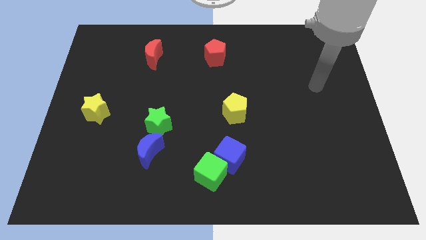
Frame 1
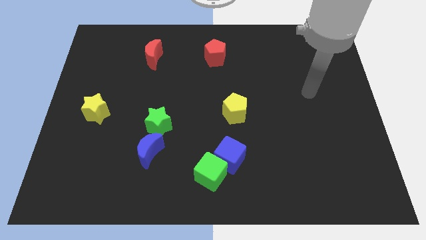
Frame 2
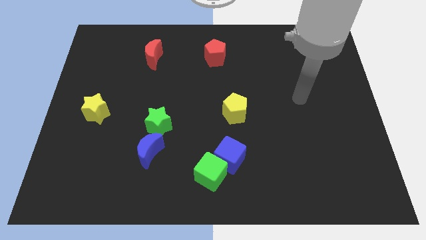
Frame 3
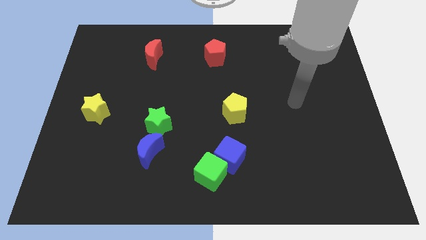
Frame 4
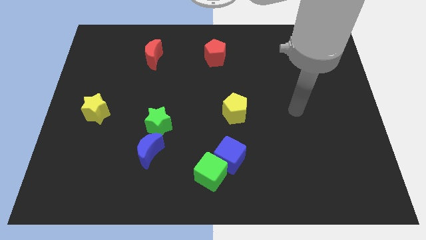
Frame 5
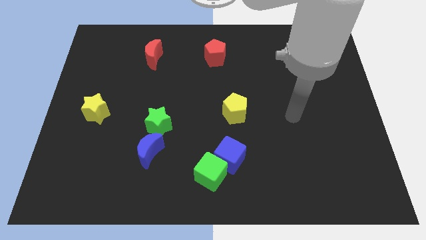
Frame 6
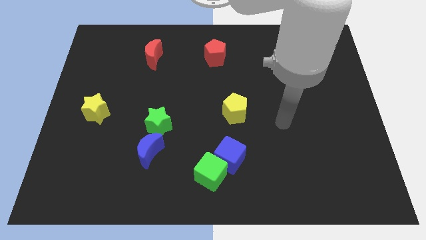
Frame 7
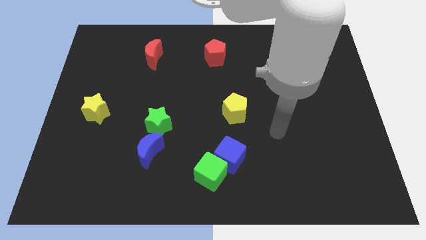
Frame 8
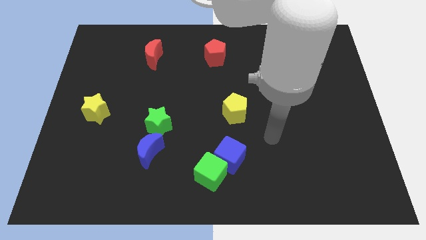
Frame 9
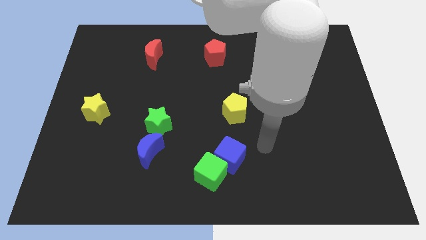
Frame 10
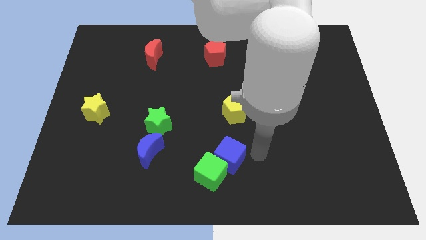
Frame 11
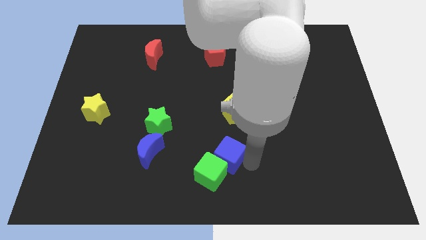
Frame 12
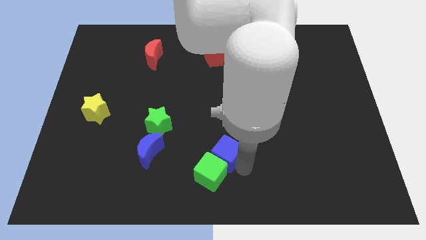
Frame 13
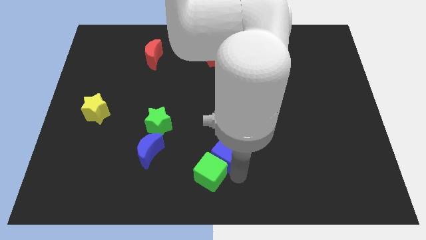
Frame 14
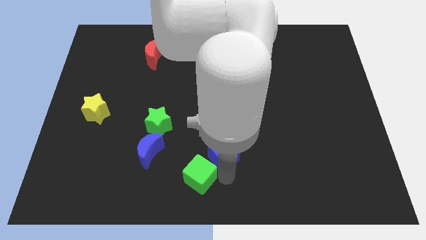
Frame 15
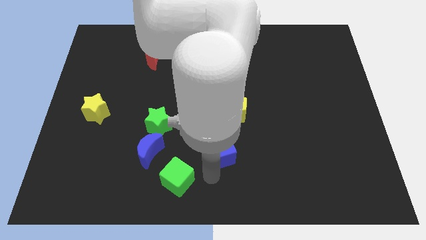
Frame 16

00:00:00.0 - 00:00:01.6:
separate the blue cube from the green cube

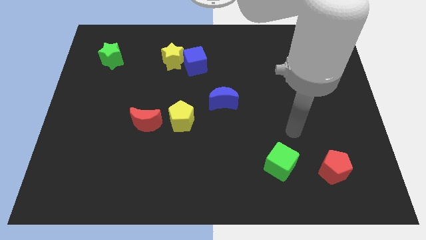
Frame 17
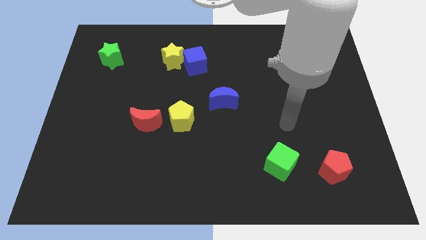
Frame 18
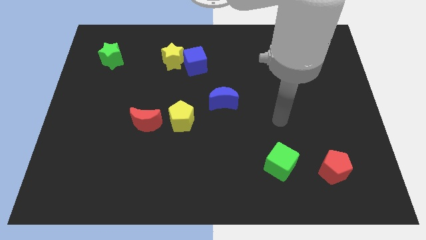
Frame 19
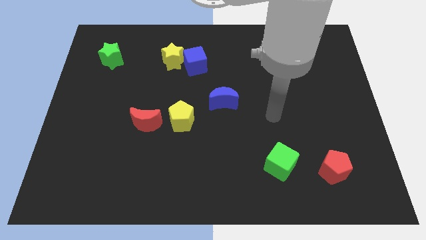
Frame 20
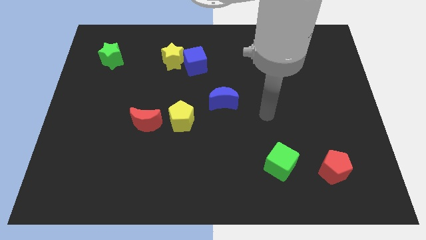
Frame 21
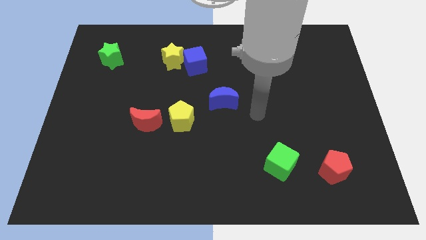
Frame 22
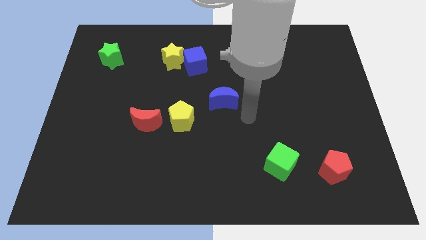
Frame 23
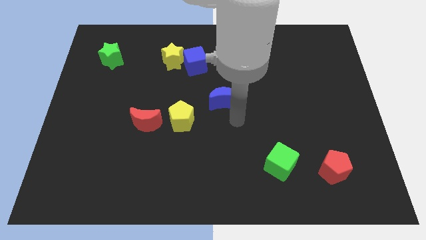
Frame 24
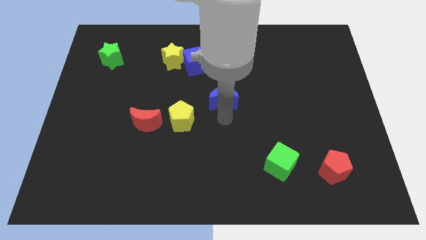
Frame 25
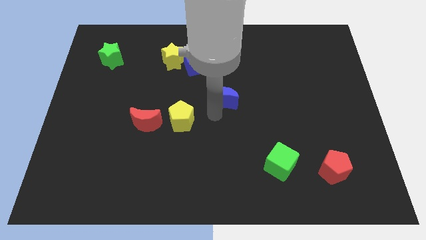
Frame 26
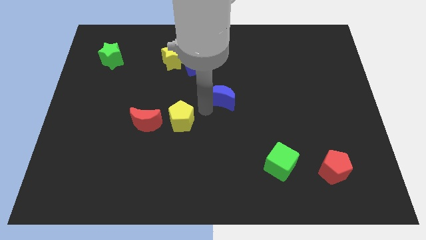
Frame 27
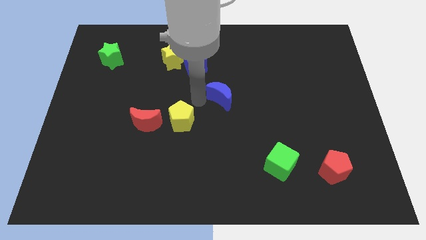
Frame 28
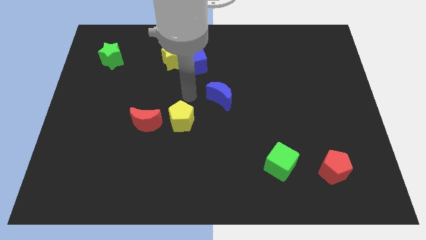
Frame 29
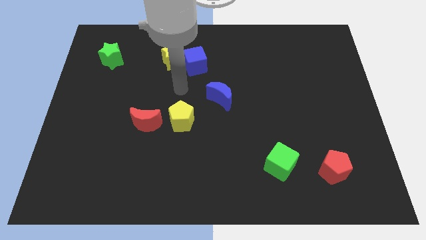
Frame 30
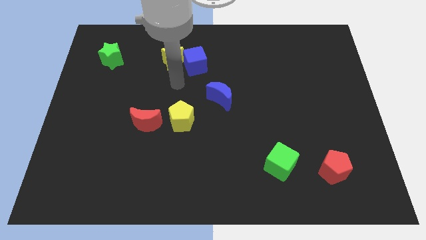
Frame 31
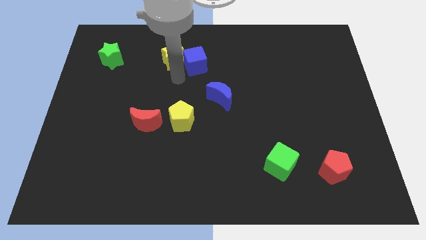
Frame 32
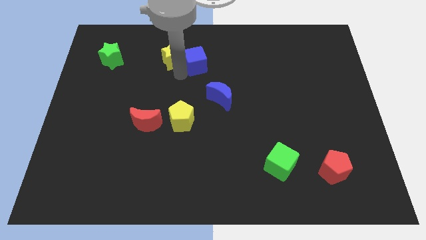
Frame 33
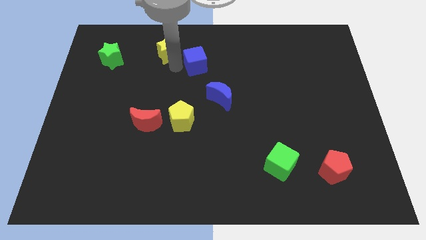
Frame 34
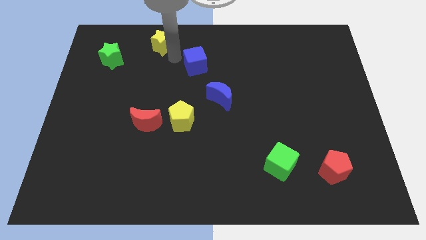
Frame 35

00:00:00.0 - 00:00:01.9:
separate the blue cube from the yellow star

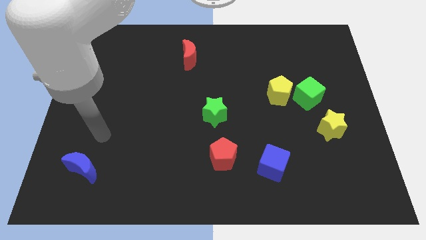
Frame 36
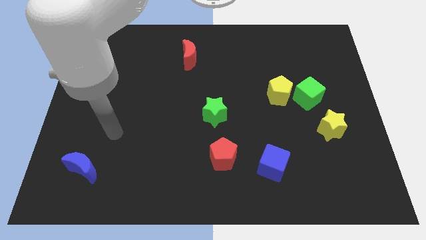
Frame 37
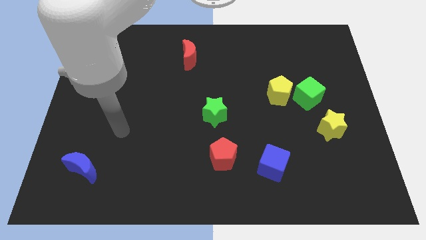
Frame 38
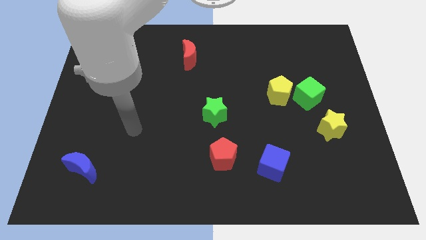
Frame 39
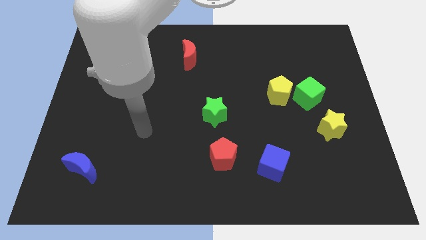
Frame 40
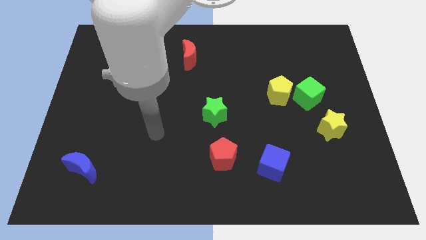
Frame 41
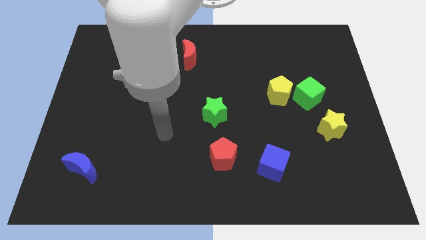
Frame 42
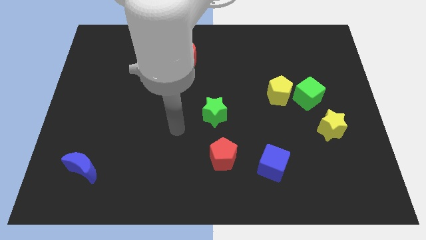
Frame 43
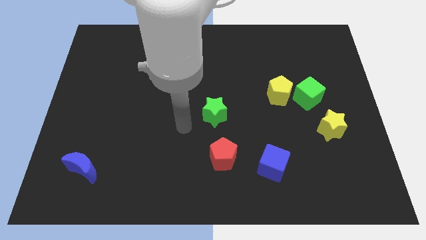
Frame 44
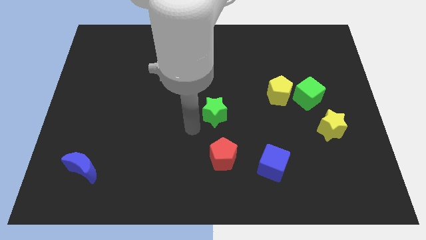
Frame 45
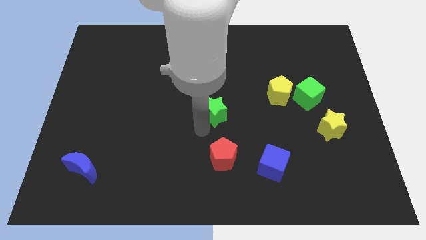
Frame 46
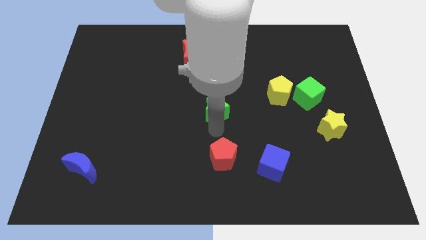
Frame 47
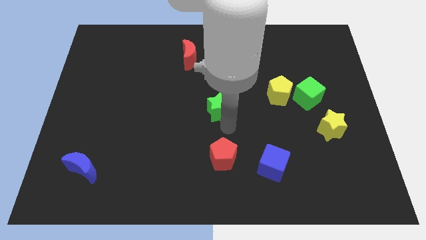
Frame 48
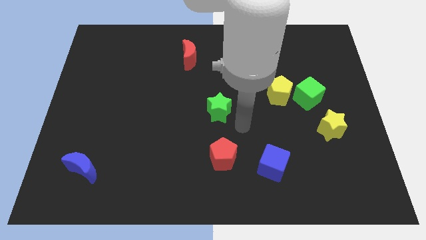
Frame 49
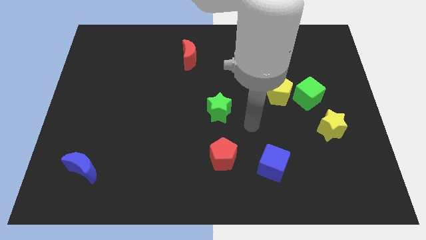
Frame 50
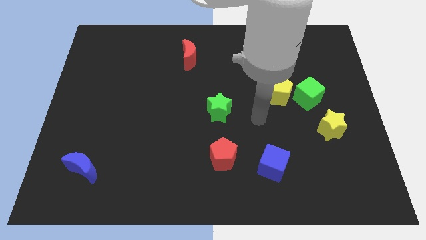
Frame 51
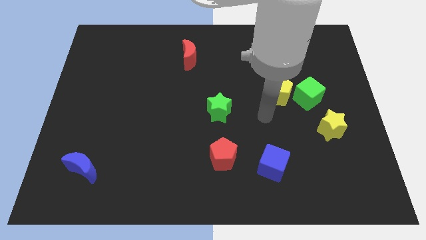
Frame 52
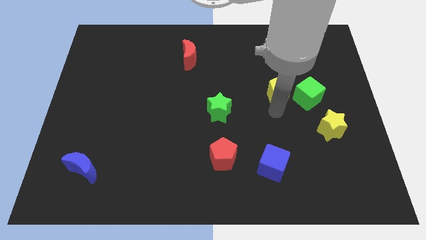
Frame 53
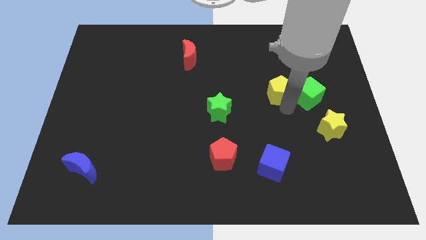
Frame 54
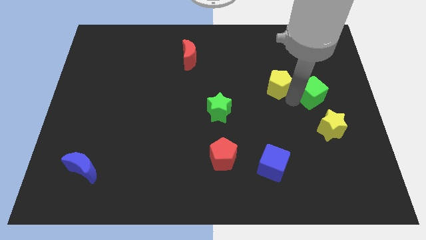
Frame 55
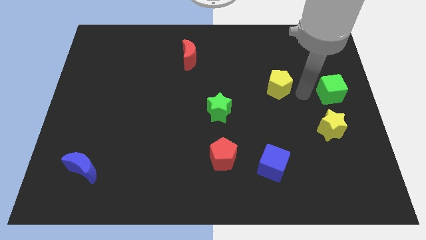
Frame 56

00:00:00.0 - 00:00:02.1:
move the yellow pentagon away from the green cube

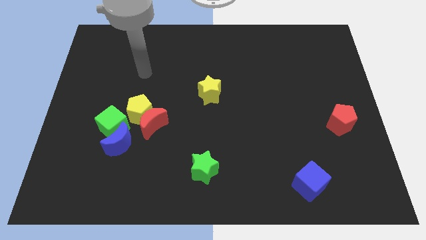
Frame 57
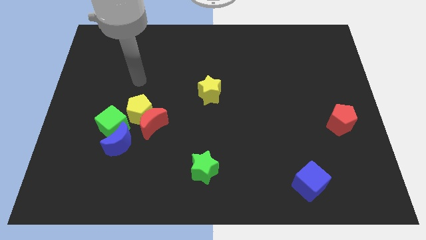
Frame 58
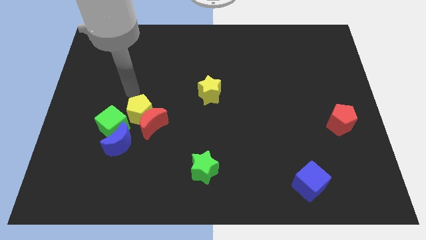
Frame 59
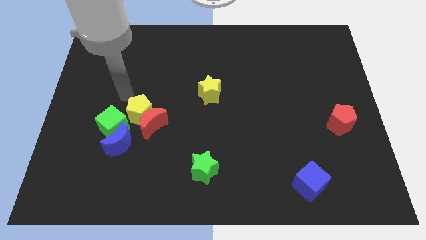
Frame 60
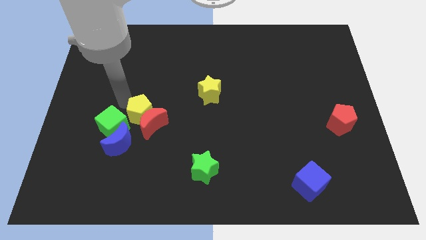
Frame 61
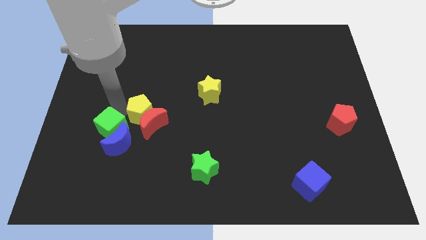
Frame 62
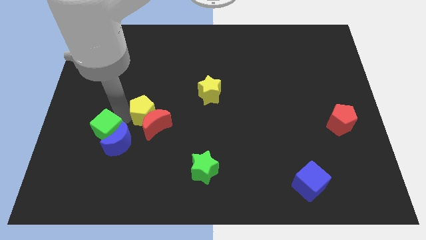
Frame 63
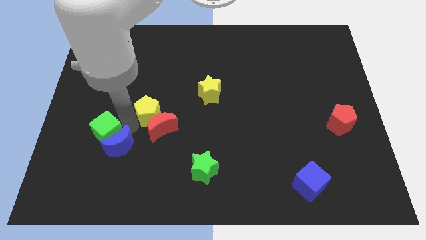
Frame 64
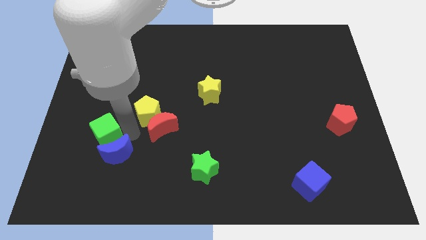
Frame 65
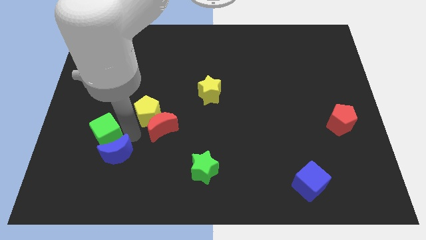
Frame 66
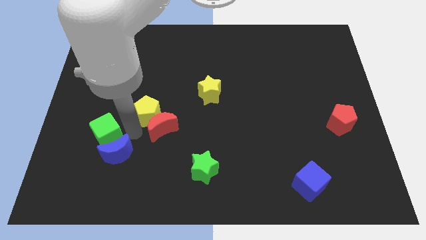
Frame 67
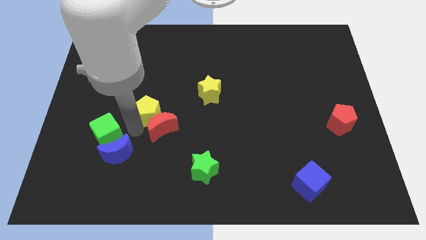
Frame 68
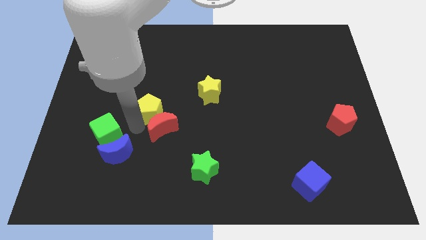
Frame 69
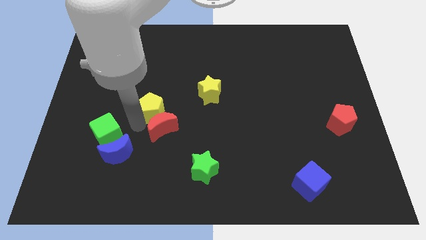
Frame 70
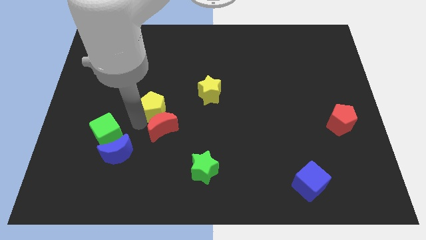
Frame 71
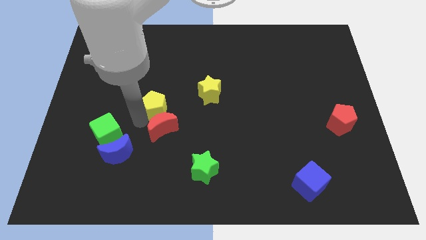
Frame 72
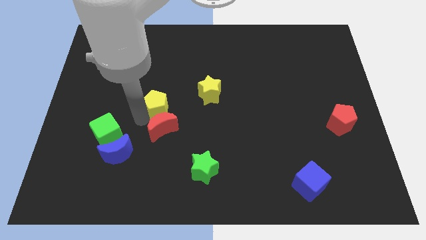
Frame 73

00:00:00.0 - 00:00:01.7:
pull the yellow pentagon apart from the clump

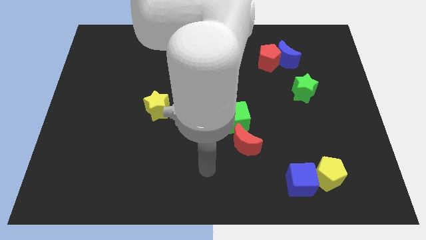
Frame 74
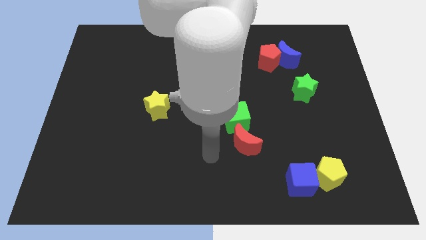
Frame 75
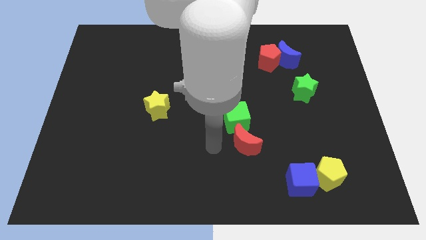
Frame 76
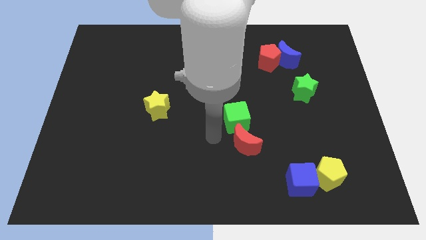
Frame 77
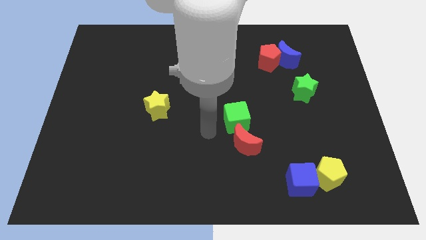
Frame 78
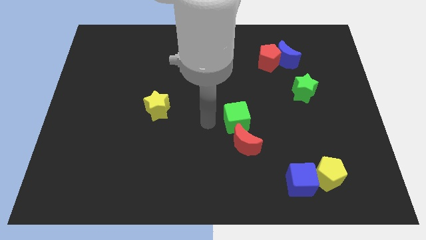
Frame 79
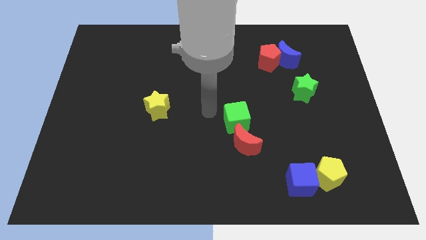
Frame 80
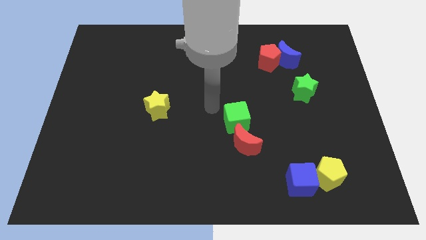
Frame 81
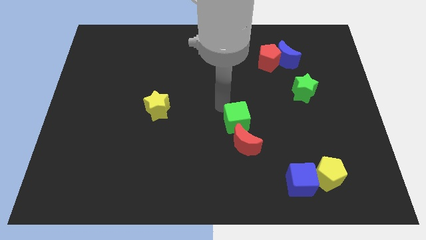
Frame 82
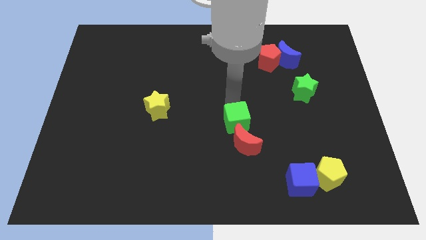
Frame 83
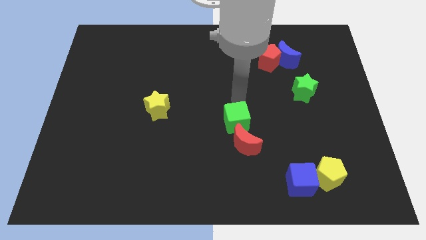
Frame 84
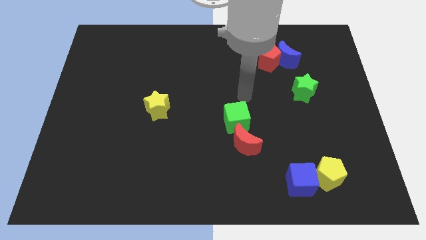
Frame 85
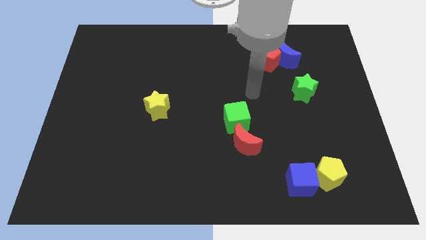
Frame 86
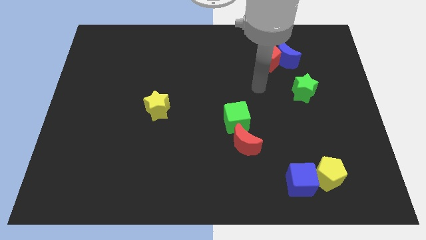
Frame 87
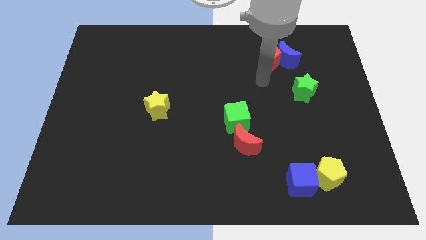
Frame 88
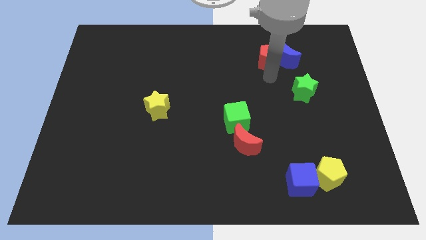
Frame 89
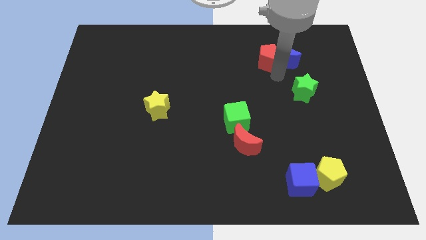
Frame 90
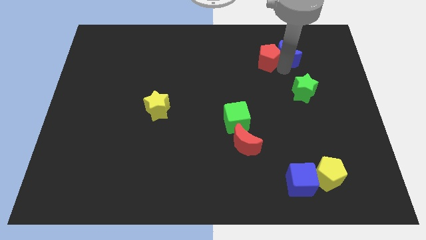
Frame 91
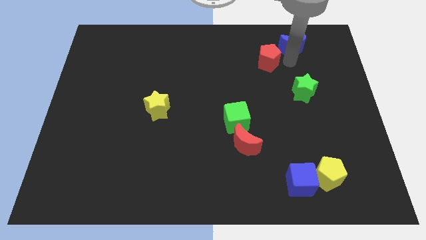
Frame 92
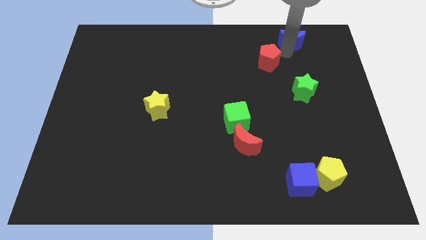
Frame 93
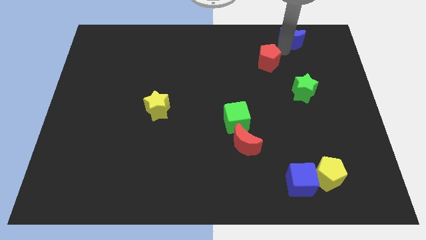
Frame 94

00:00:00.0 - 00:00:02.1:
move the red pentagon away from the blue moon
